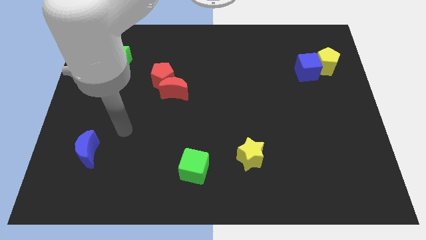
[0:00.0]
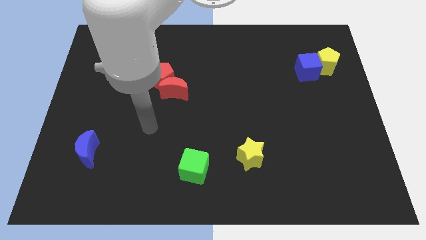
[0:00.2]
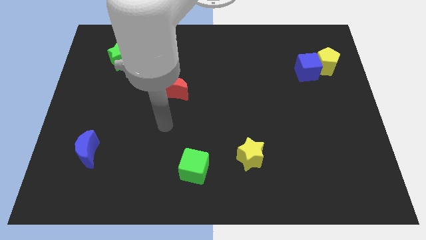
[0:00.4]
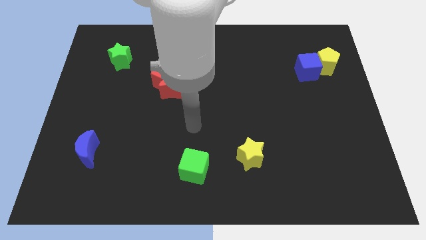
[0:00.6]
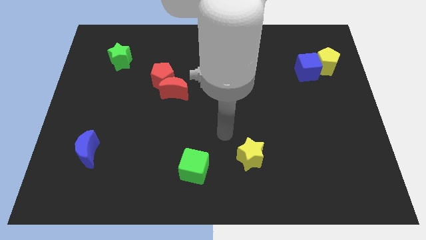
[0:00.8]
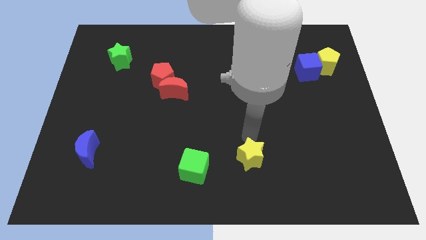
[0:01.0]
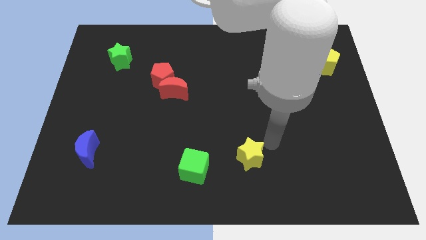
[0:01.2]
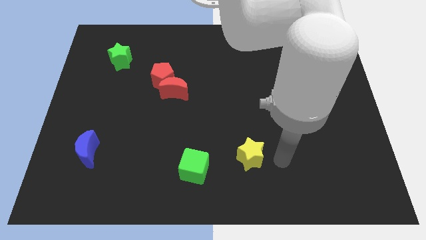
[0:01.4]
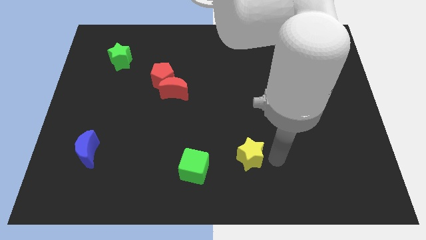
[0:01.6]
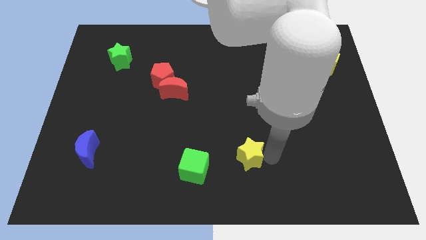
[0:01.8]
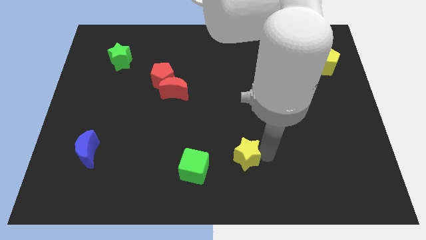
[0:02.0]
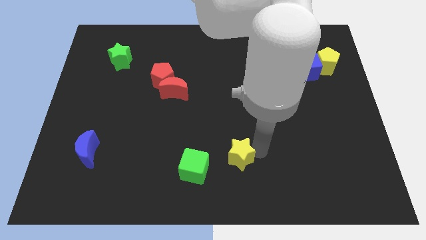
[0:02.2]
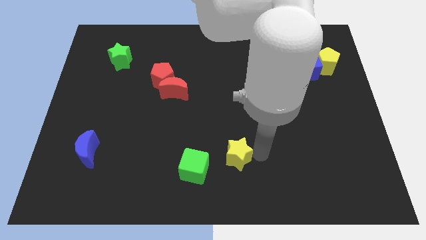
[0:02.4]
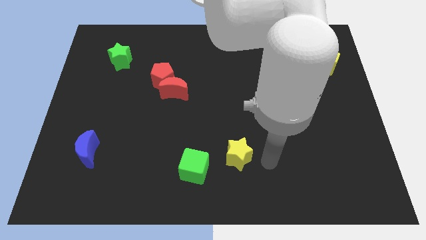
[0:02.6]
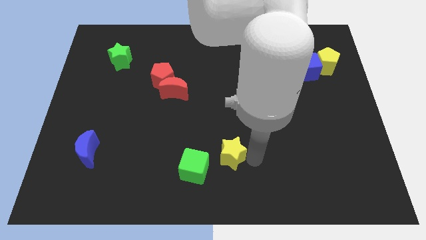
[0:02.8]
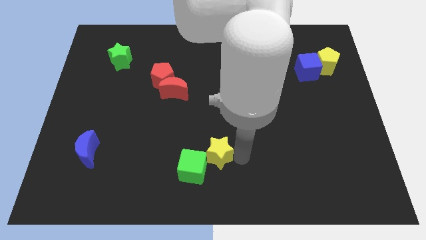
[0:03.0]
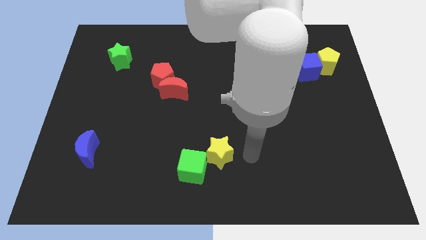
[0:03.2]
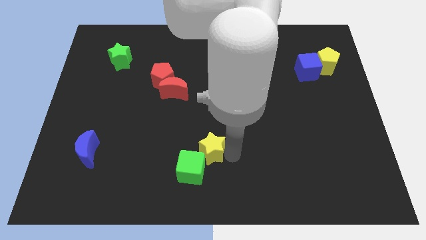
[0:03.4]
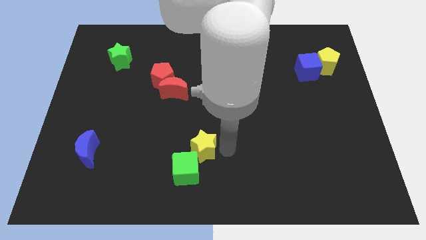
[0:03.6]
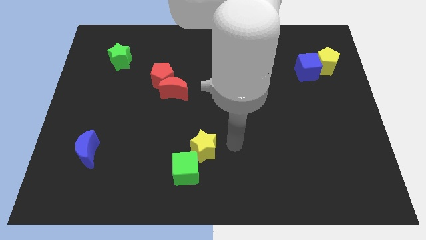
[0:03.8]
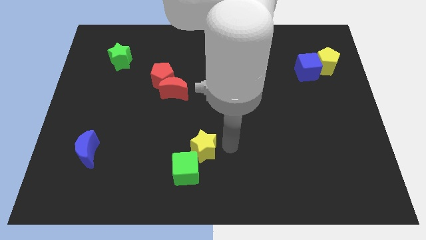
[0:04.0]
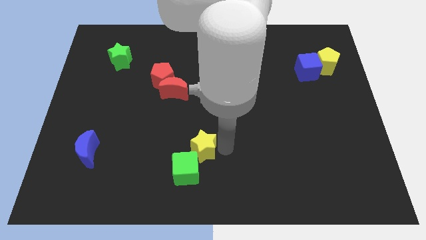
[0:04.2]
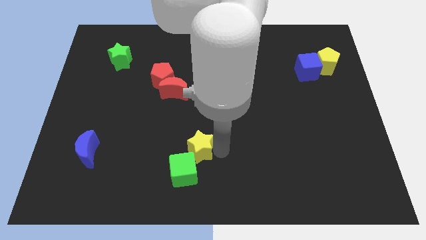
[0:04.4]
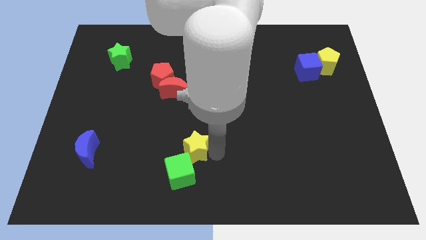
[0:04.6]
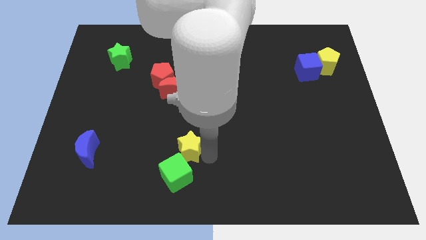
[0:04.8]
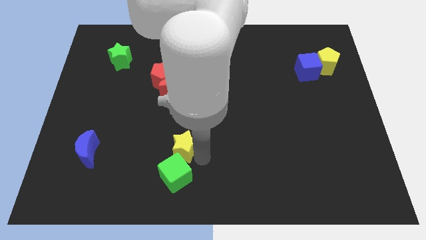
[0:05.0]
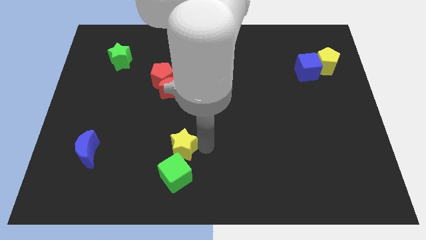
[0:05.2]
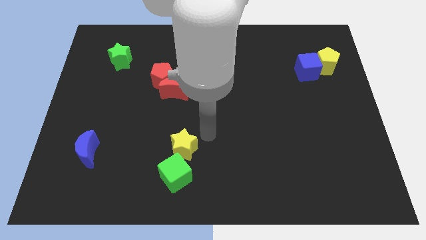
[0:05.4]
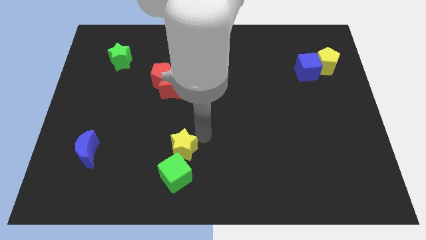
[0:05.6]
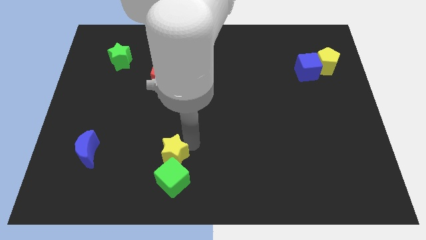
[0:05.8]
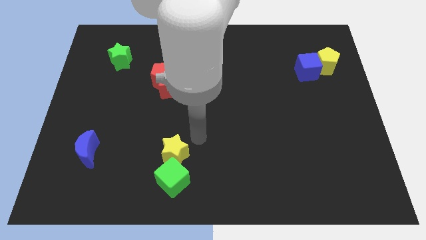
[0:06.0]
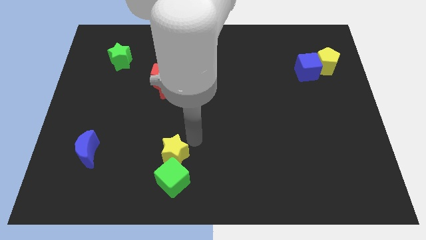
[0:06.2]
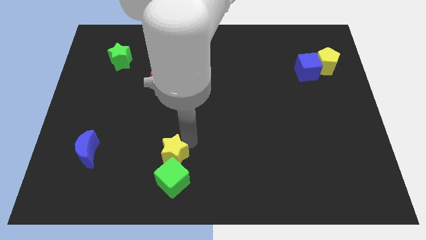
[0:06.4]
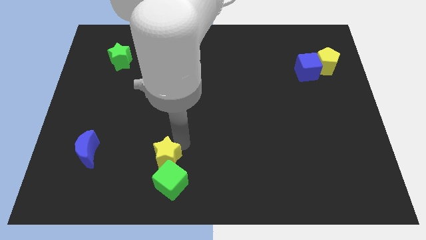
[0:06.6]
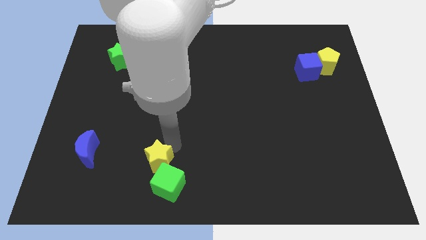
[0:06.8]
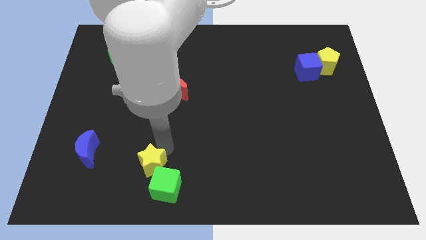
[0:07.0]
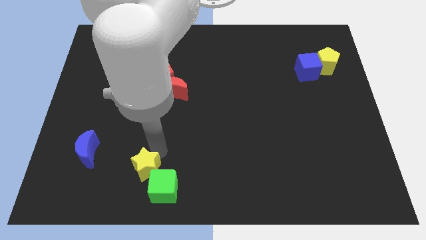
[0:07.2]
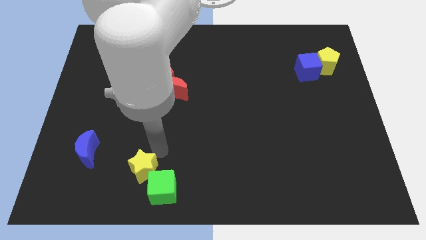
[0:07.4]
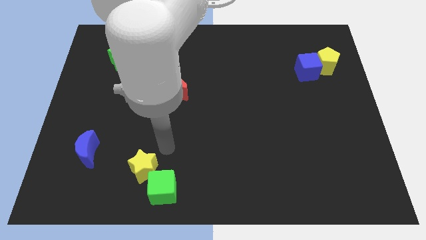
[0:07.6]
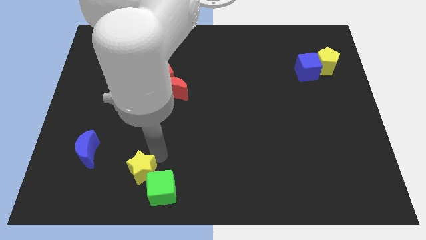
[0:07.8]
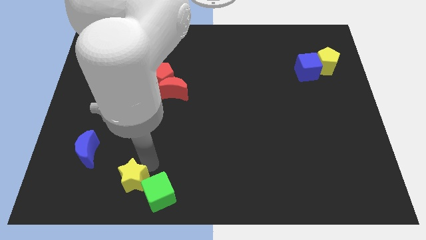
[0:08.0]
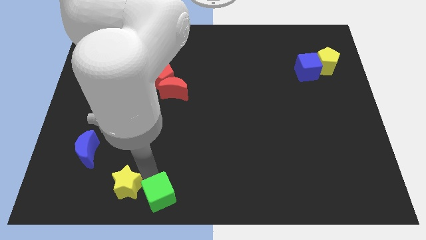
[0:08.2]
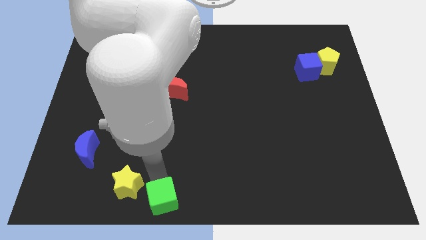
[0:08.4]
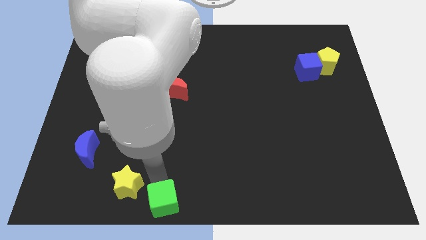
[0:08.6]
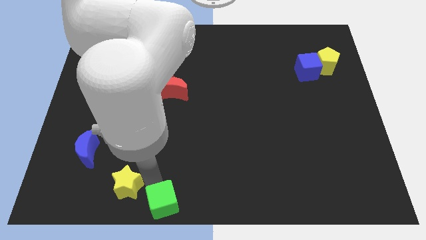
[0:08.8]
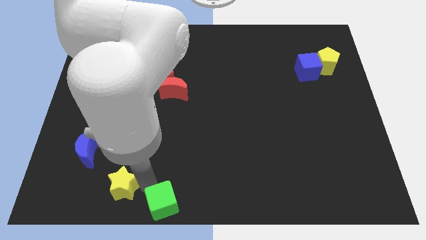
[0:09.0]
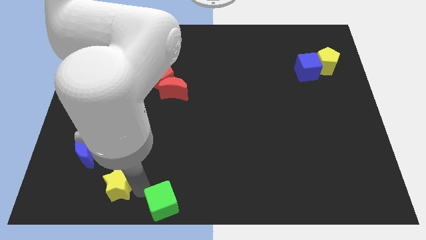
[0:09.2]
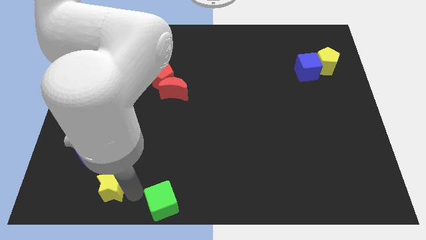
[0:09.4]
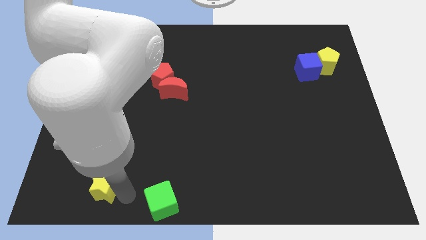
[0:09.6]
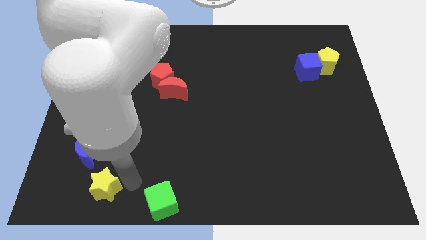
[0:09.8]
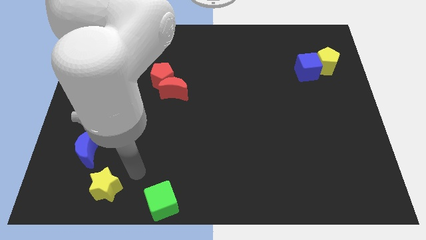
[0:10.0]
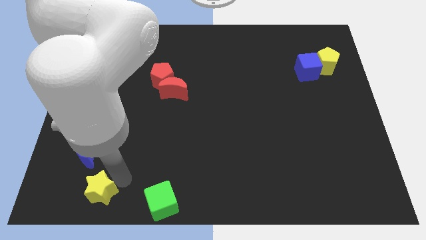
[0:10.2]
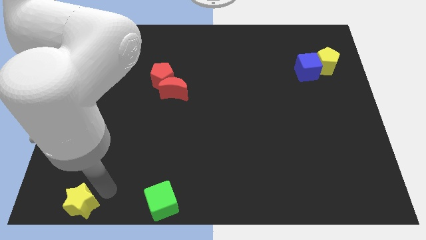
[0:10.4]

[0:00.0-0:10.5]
slide the yellow star to the lower left corner

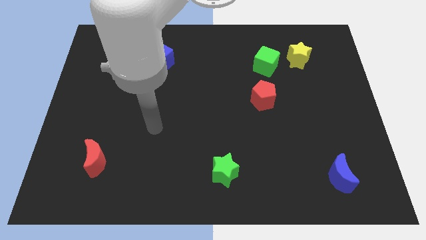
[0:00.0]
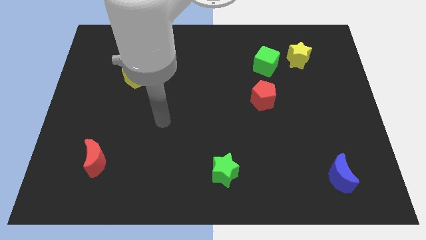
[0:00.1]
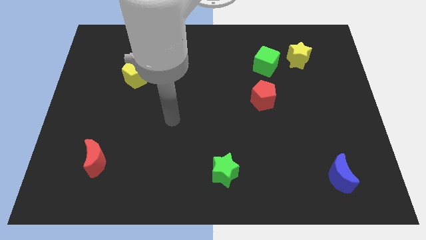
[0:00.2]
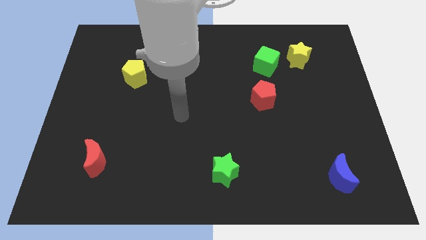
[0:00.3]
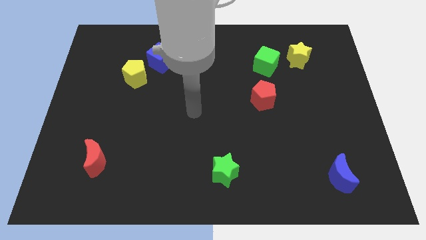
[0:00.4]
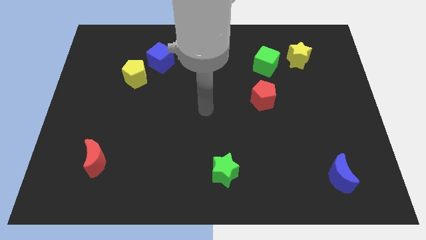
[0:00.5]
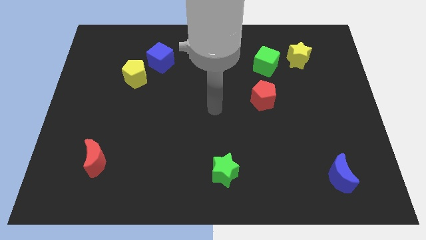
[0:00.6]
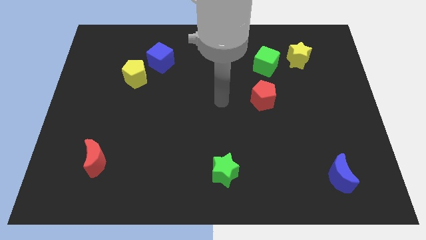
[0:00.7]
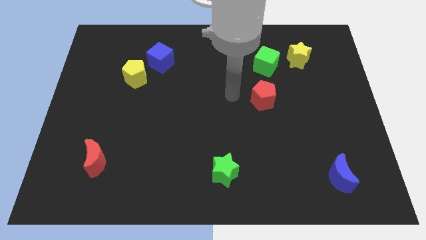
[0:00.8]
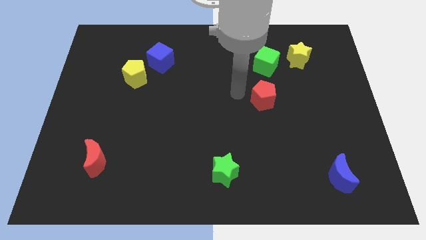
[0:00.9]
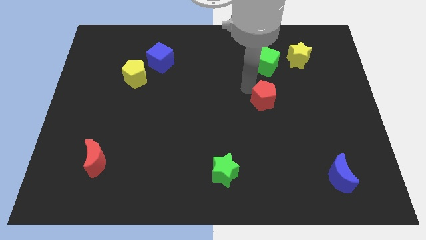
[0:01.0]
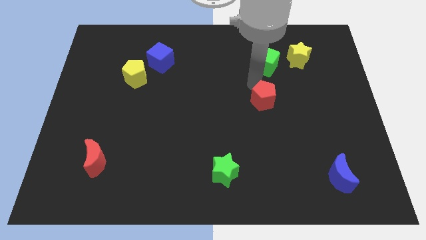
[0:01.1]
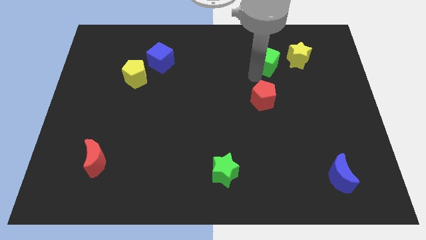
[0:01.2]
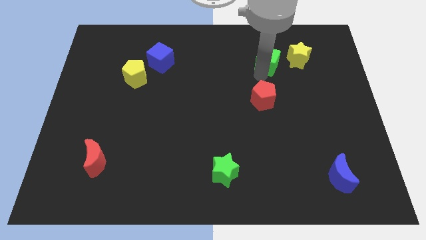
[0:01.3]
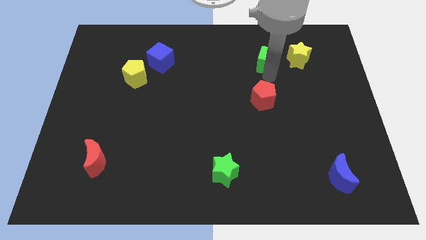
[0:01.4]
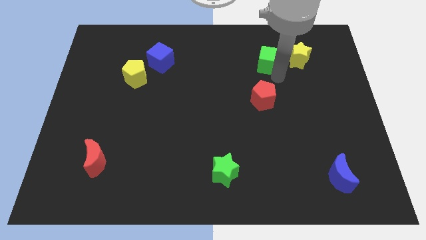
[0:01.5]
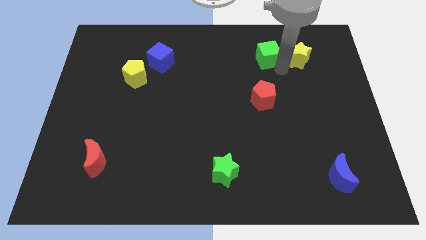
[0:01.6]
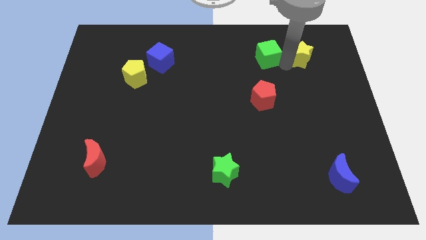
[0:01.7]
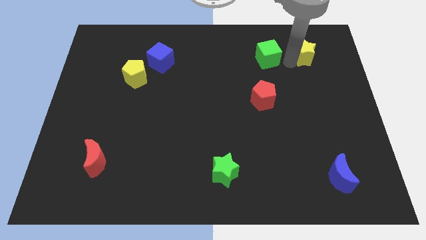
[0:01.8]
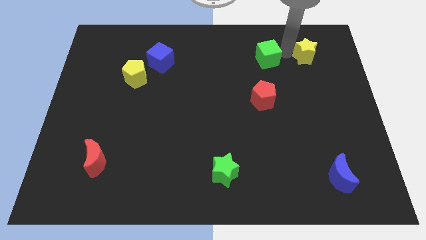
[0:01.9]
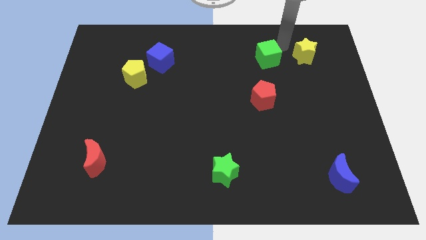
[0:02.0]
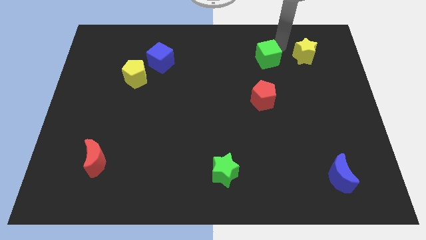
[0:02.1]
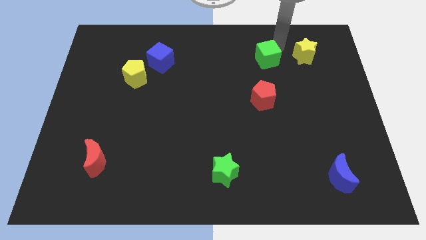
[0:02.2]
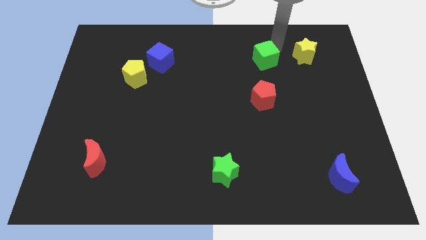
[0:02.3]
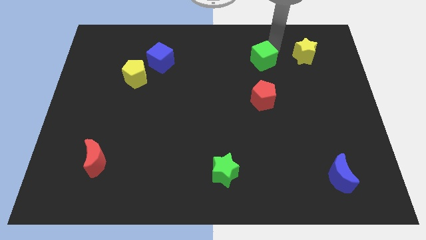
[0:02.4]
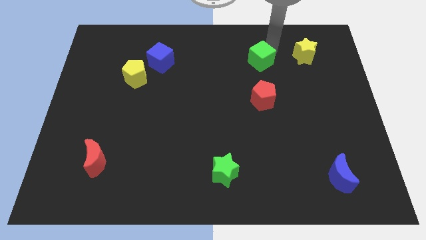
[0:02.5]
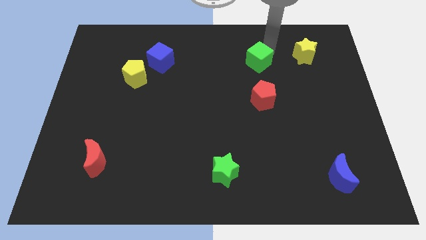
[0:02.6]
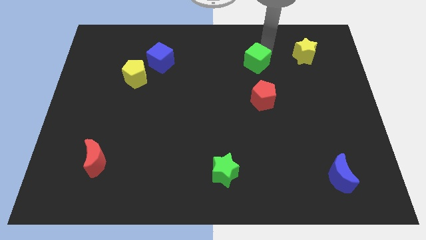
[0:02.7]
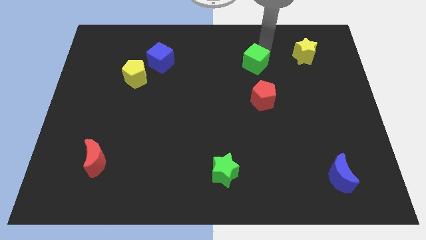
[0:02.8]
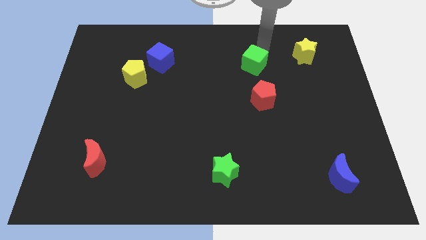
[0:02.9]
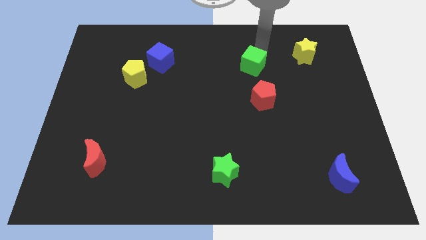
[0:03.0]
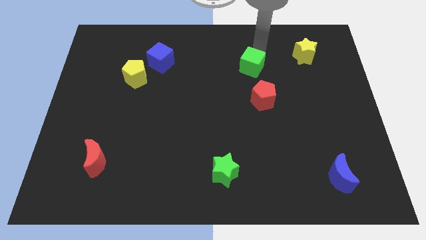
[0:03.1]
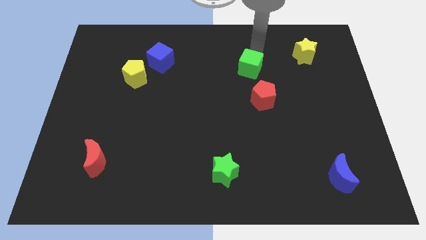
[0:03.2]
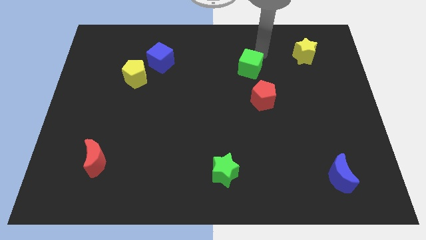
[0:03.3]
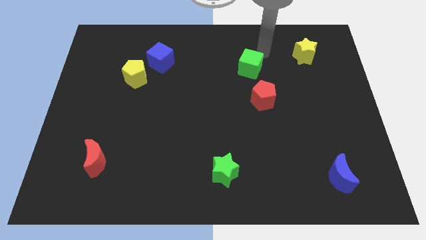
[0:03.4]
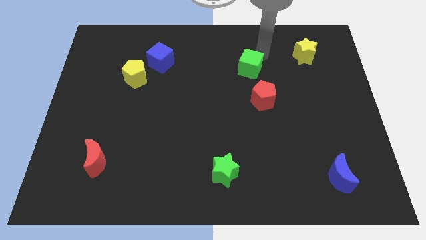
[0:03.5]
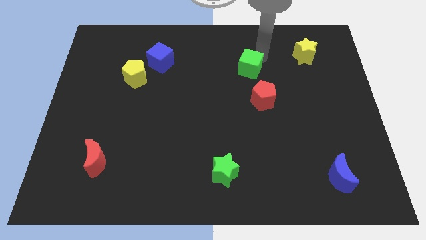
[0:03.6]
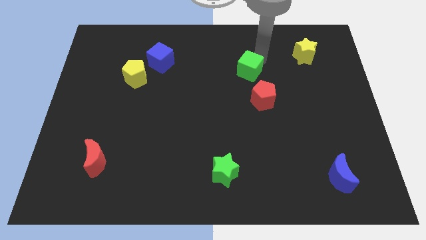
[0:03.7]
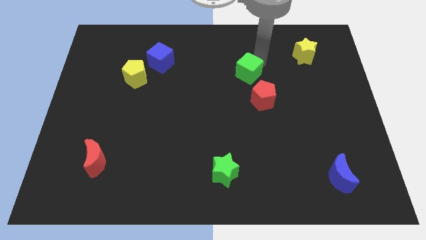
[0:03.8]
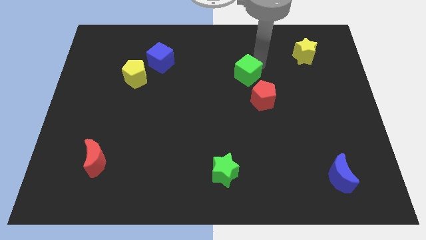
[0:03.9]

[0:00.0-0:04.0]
slide the green cube to the middle
